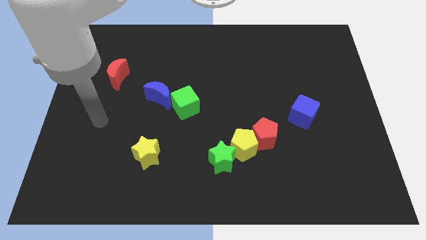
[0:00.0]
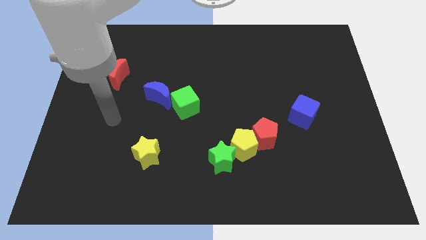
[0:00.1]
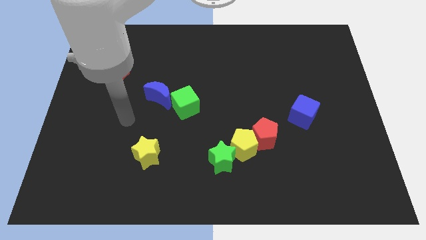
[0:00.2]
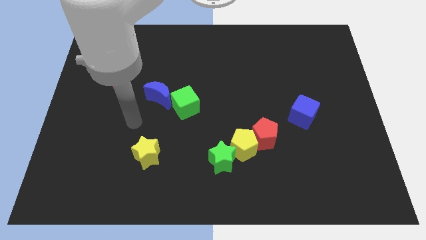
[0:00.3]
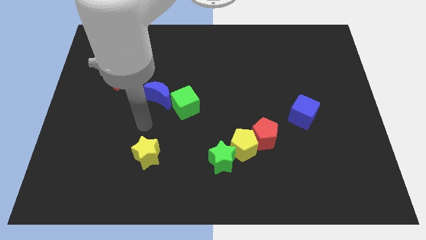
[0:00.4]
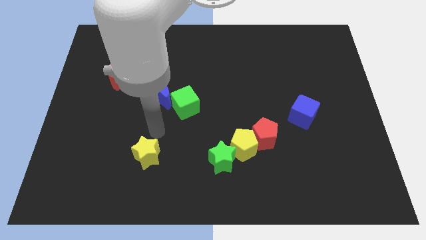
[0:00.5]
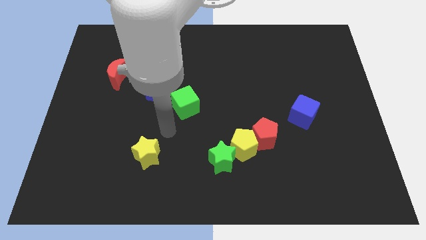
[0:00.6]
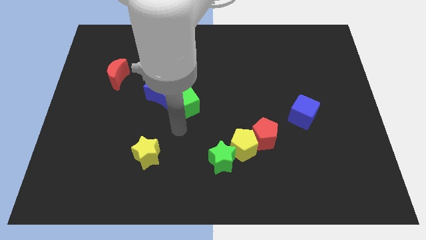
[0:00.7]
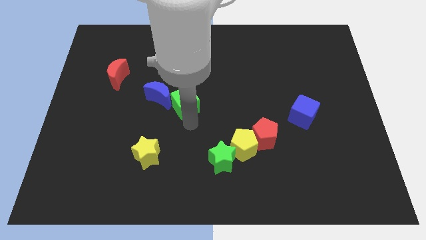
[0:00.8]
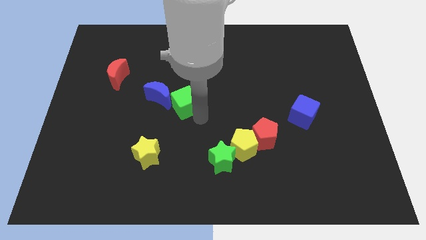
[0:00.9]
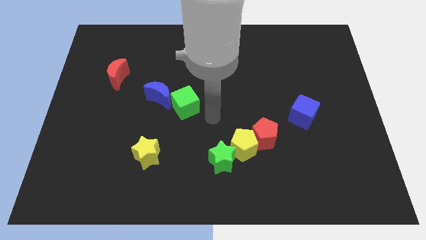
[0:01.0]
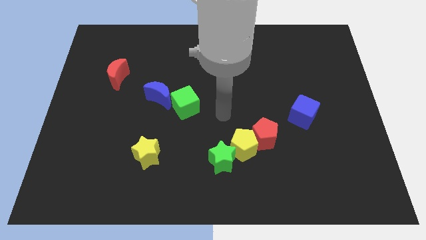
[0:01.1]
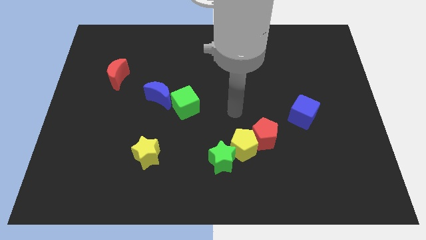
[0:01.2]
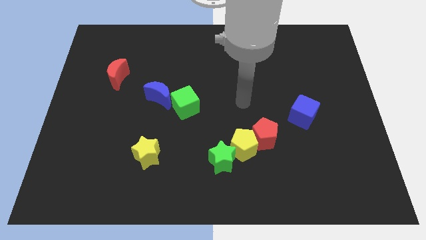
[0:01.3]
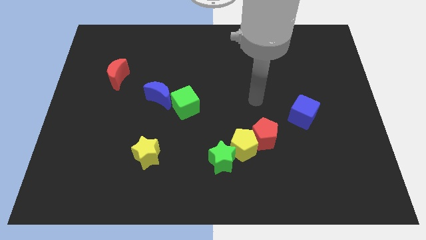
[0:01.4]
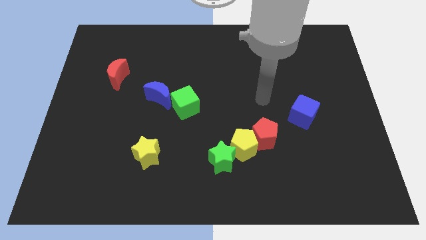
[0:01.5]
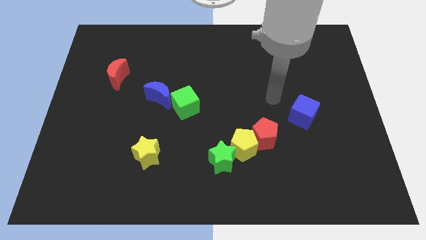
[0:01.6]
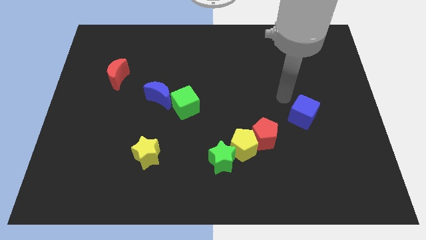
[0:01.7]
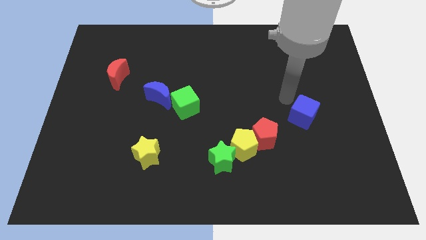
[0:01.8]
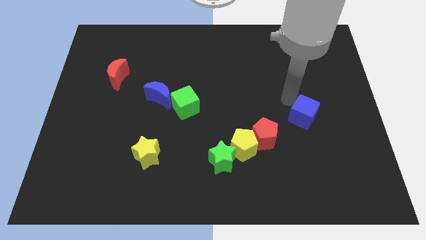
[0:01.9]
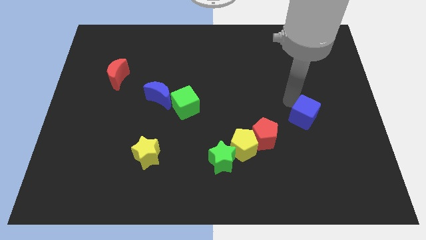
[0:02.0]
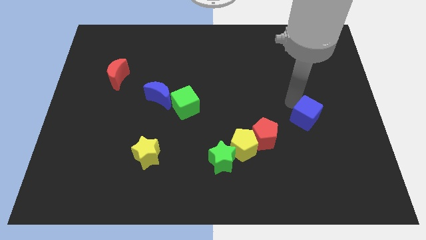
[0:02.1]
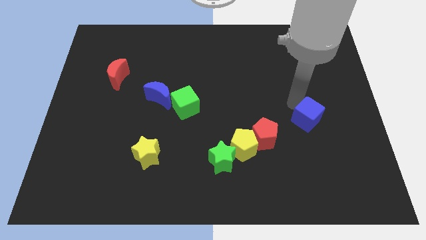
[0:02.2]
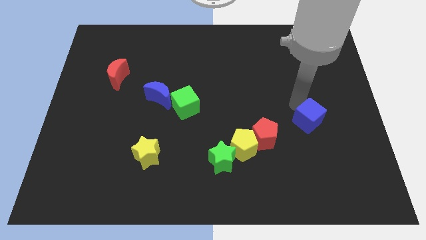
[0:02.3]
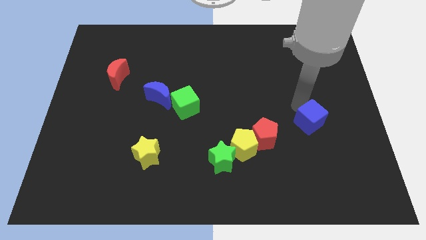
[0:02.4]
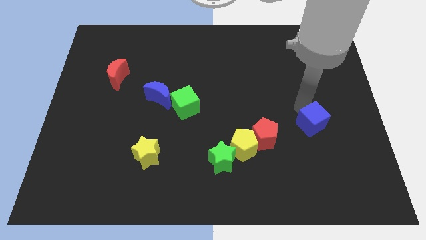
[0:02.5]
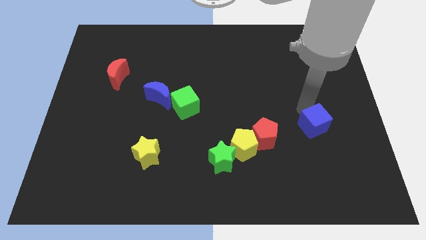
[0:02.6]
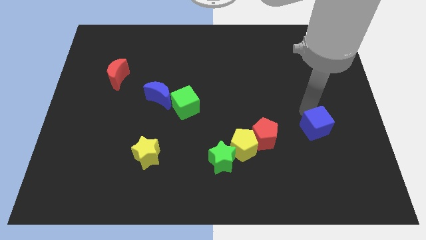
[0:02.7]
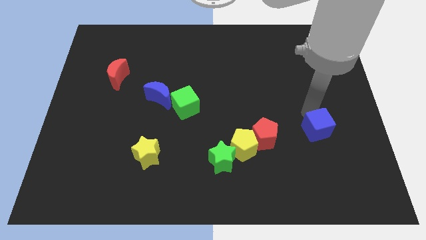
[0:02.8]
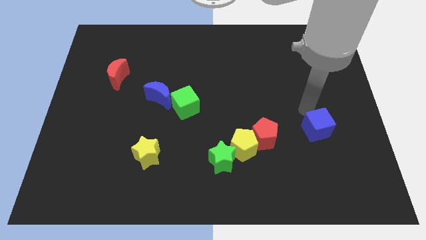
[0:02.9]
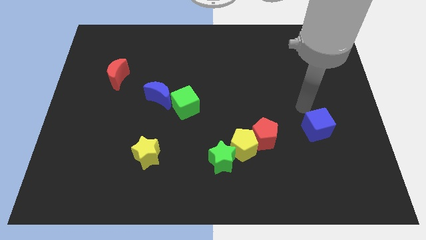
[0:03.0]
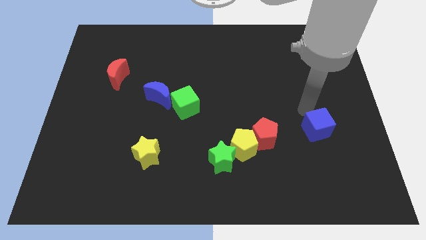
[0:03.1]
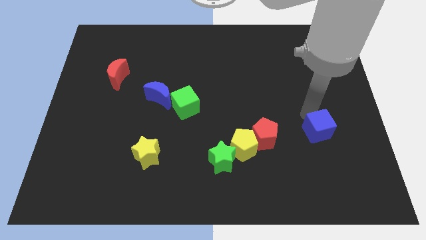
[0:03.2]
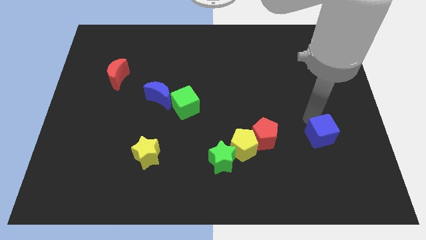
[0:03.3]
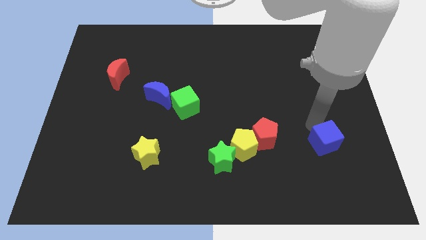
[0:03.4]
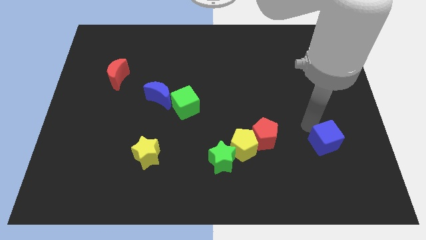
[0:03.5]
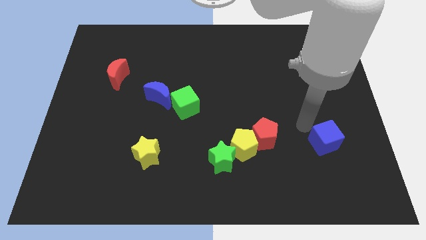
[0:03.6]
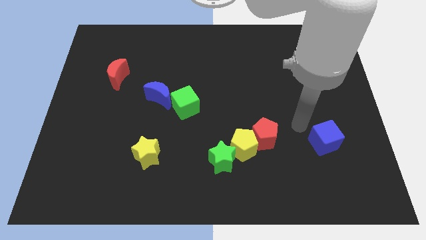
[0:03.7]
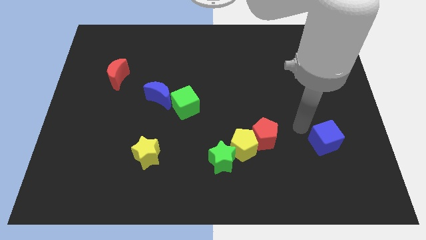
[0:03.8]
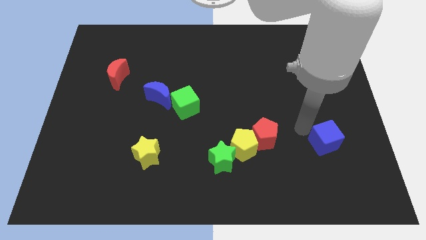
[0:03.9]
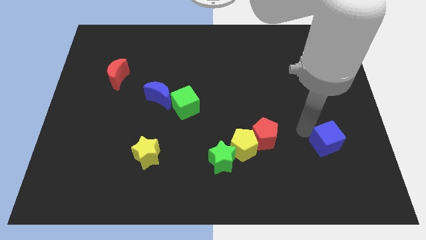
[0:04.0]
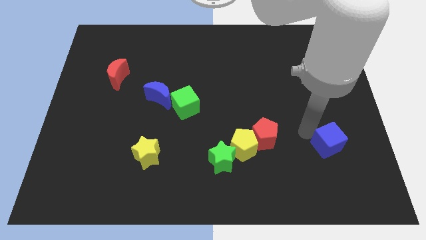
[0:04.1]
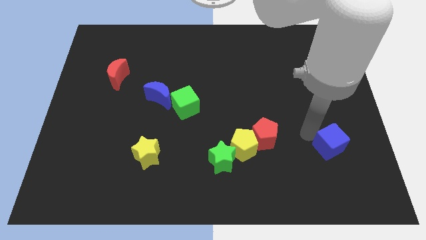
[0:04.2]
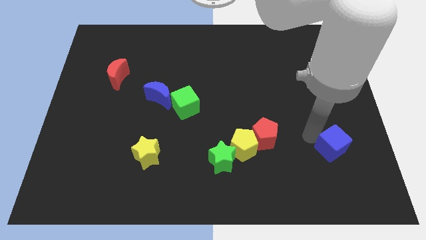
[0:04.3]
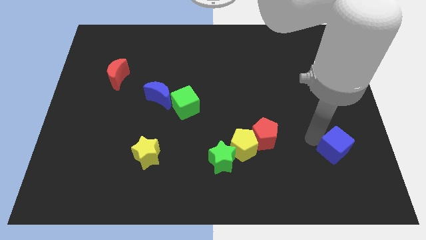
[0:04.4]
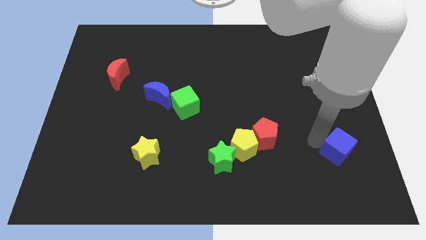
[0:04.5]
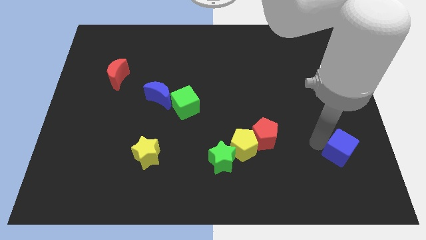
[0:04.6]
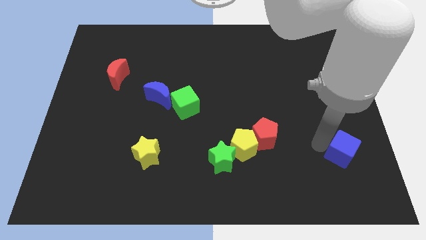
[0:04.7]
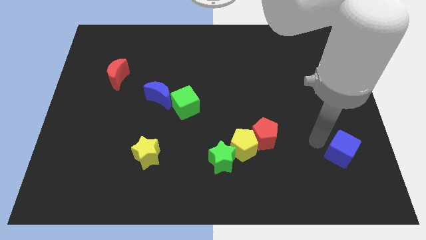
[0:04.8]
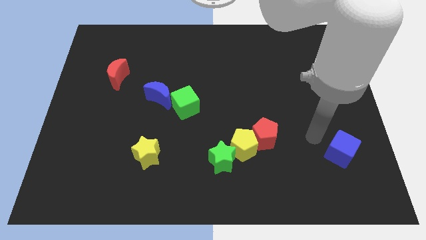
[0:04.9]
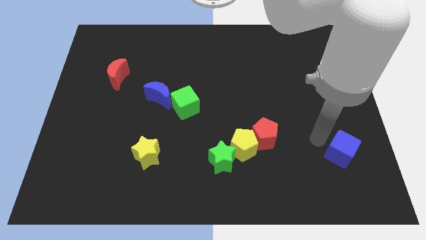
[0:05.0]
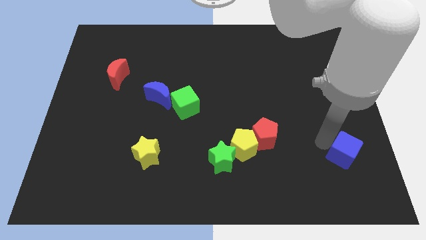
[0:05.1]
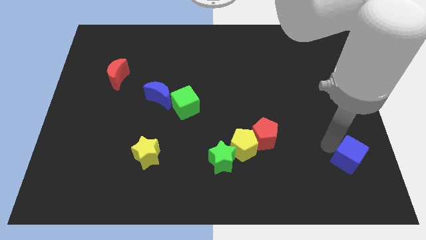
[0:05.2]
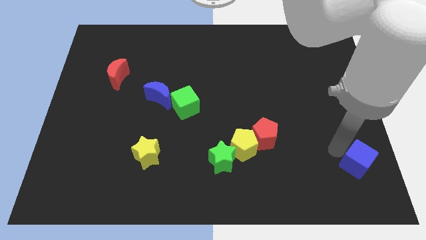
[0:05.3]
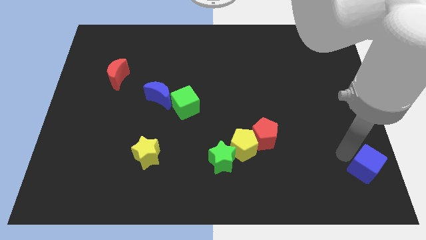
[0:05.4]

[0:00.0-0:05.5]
push the blue cube to the bottom right of the board
